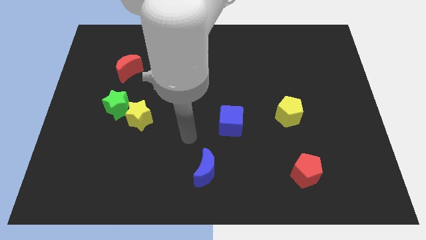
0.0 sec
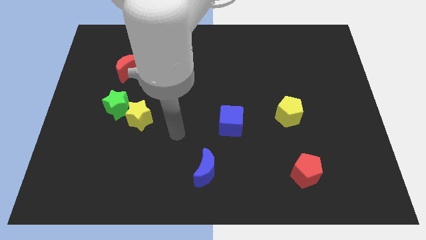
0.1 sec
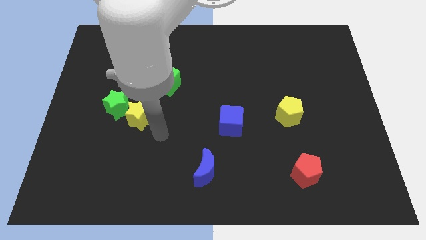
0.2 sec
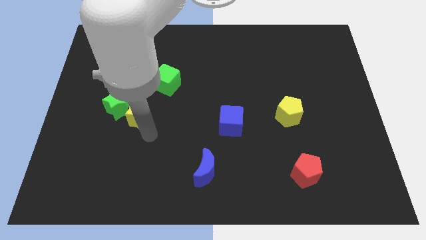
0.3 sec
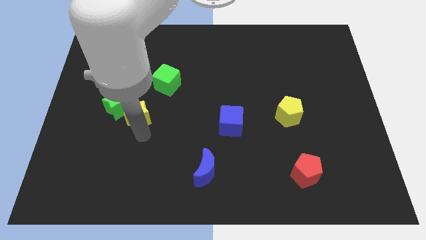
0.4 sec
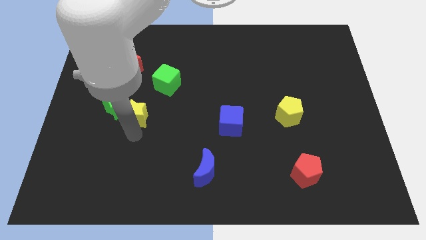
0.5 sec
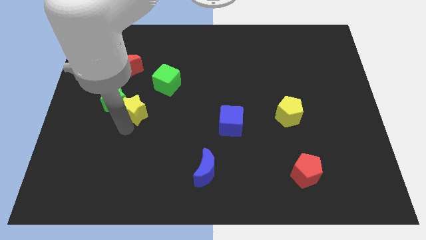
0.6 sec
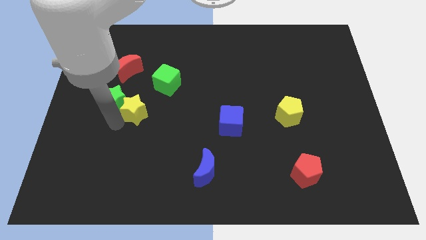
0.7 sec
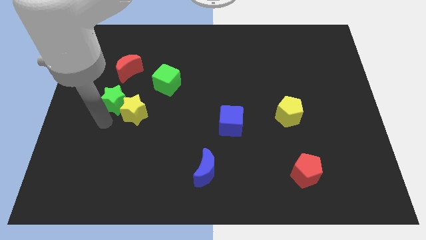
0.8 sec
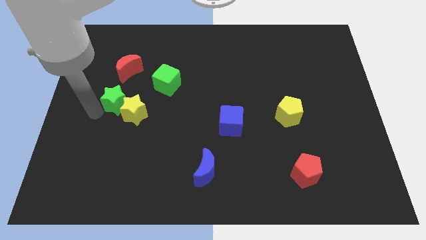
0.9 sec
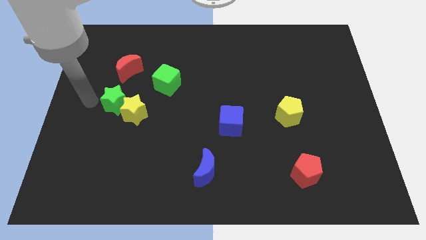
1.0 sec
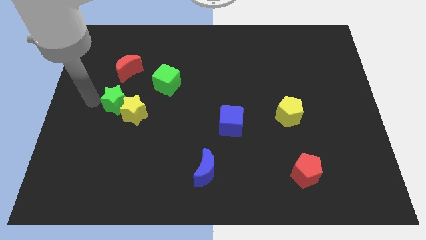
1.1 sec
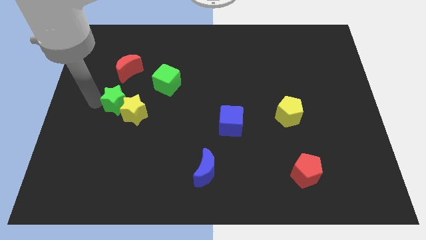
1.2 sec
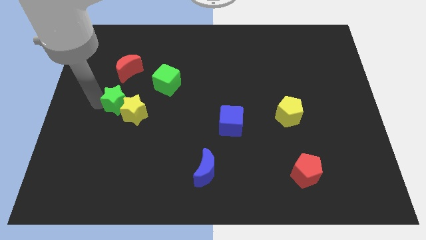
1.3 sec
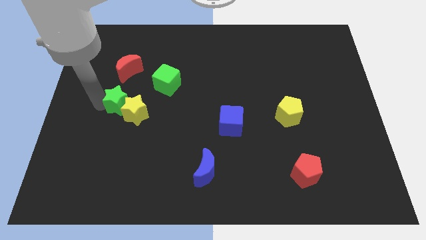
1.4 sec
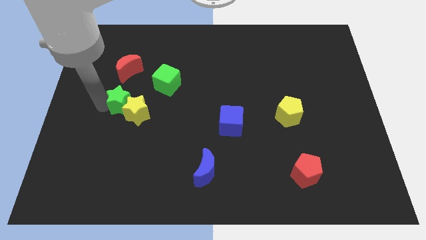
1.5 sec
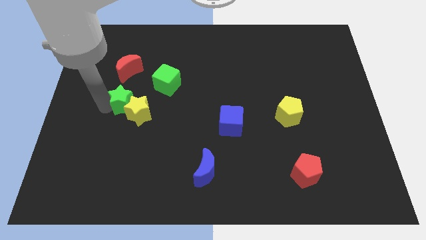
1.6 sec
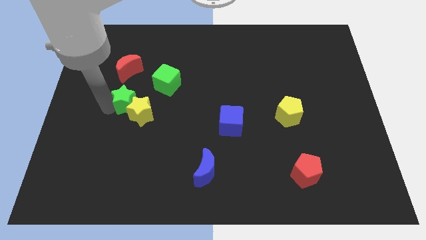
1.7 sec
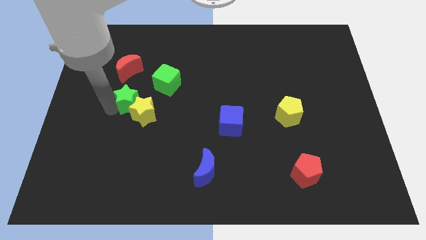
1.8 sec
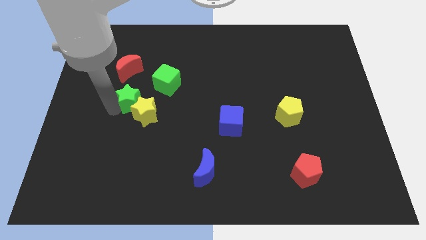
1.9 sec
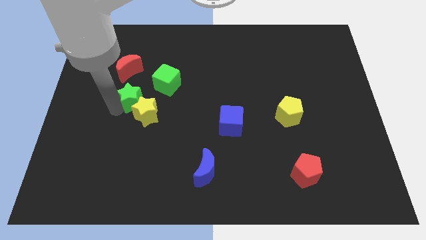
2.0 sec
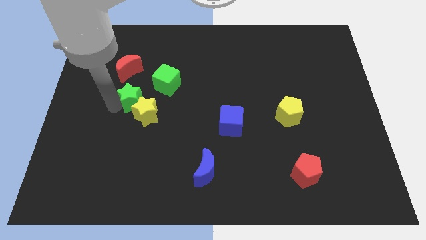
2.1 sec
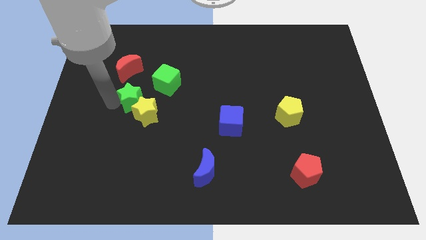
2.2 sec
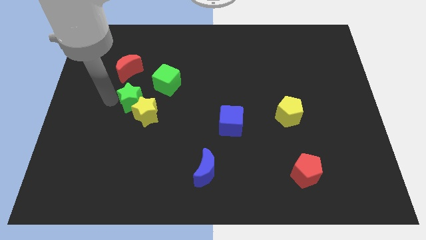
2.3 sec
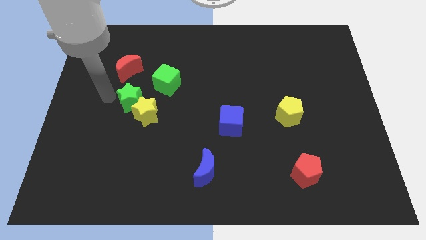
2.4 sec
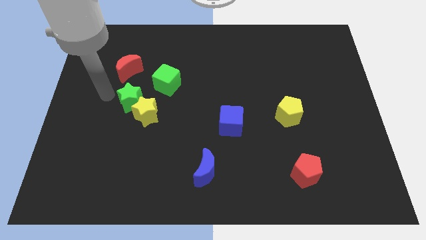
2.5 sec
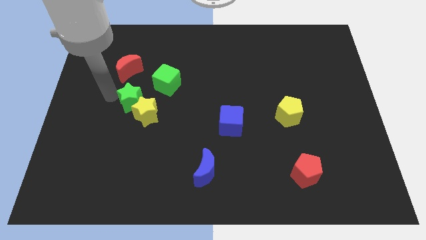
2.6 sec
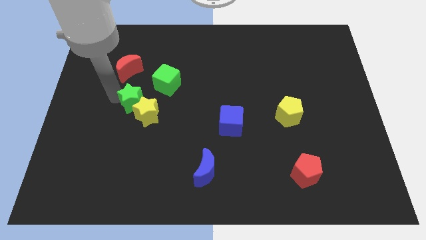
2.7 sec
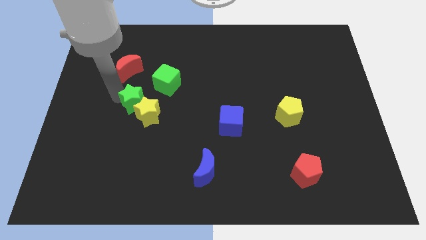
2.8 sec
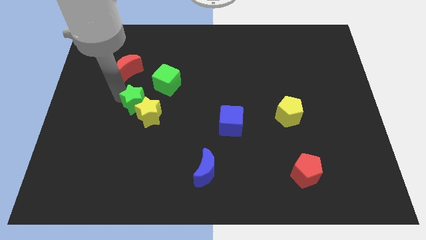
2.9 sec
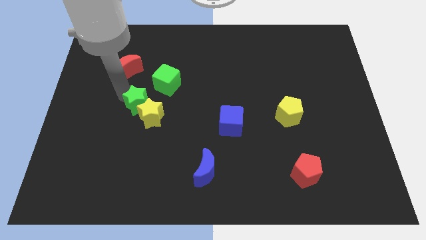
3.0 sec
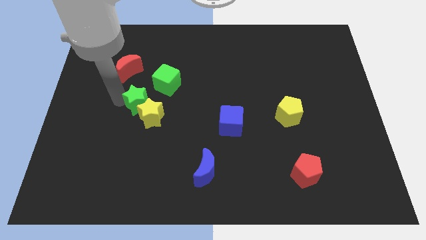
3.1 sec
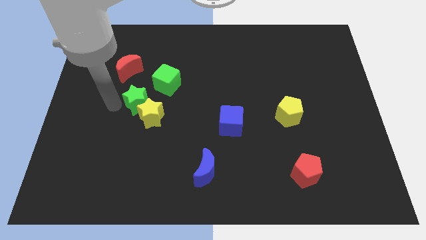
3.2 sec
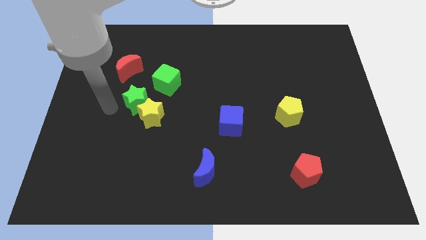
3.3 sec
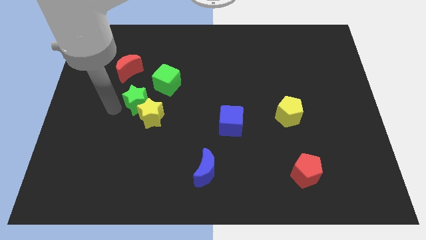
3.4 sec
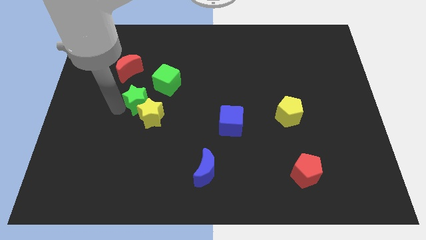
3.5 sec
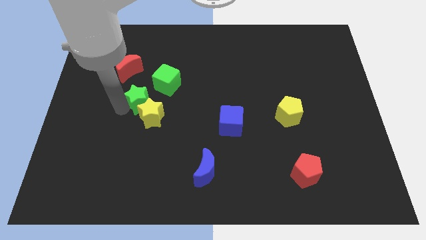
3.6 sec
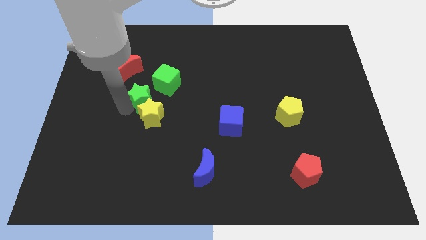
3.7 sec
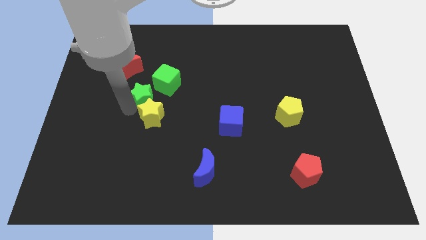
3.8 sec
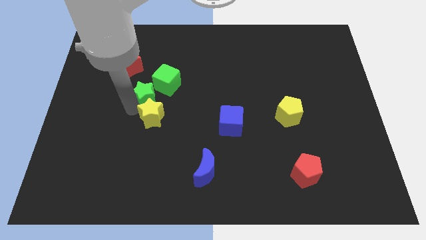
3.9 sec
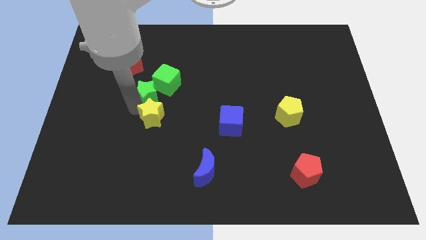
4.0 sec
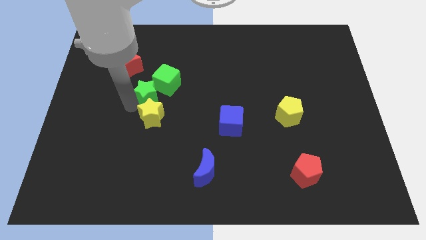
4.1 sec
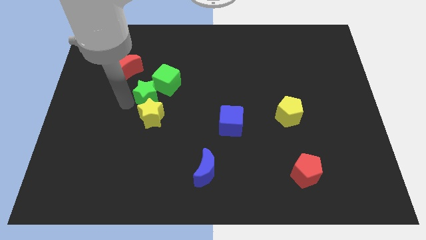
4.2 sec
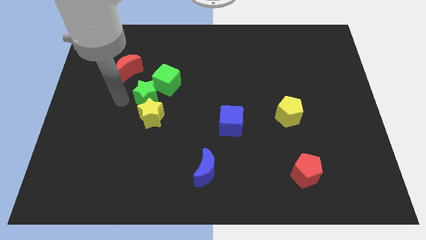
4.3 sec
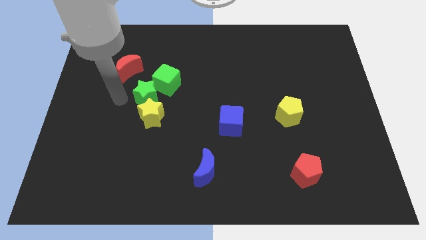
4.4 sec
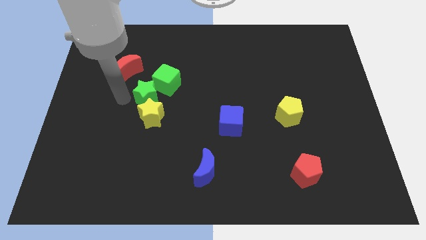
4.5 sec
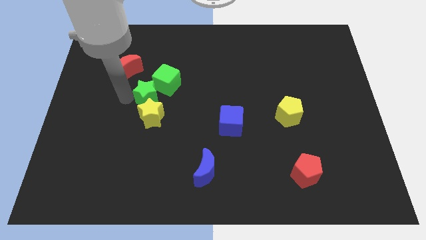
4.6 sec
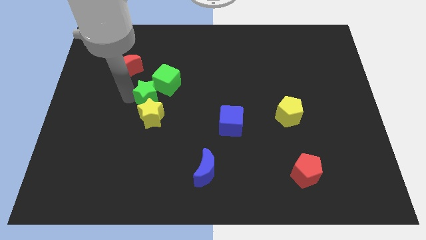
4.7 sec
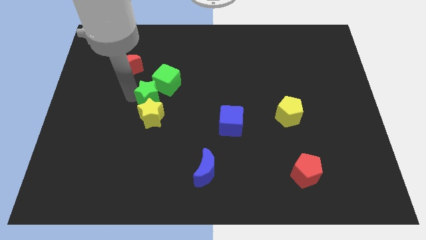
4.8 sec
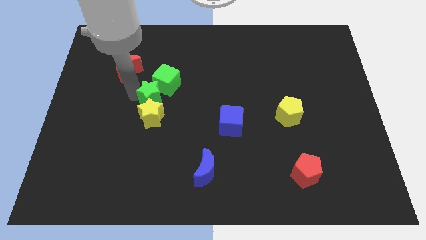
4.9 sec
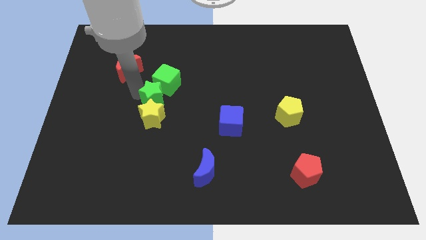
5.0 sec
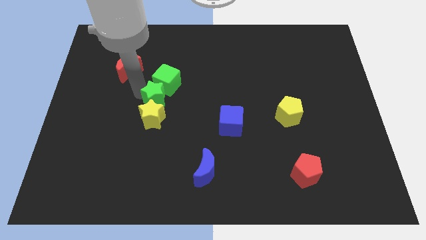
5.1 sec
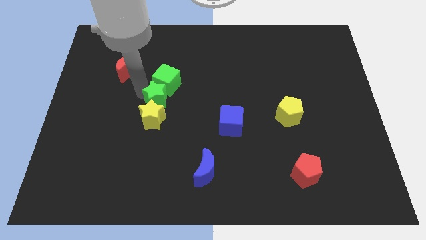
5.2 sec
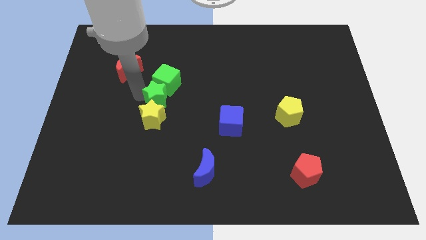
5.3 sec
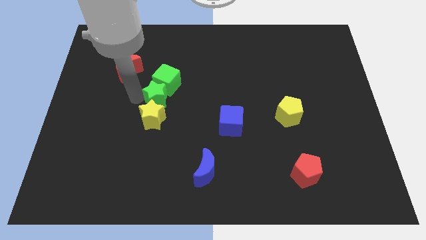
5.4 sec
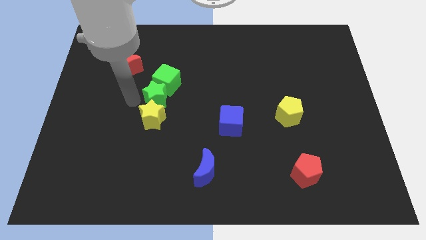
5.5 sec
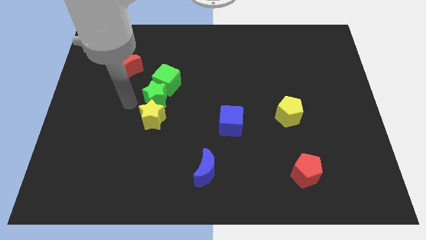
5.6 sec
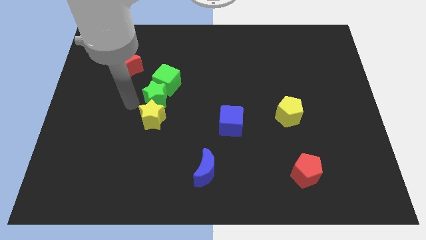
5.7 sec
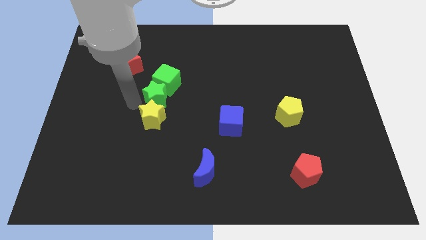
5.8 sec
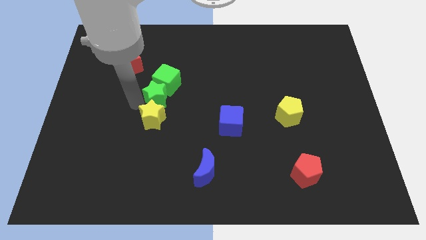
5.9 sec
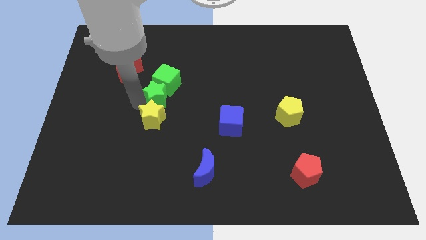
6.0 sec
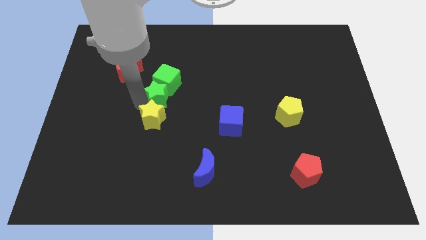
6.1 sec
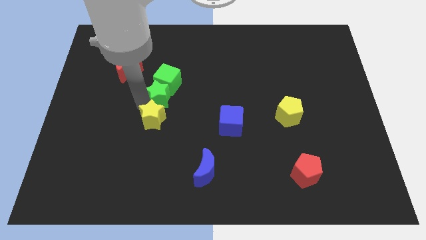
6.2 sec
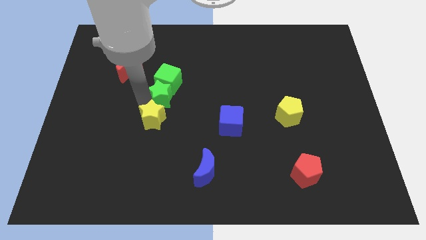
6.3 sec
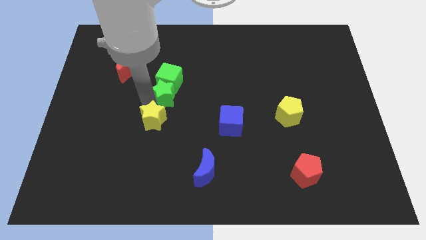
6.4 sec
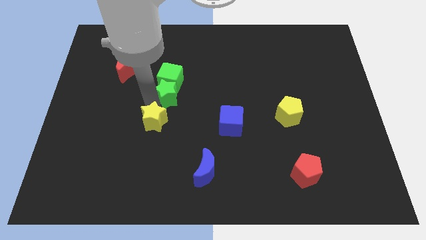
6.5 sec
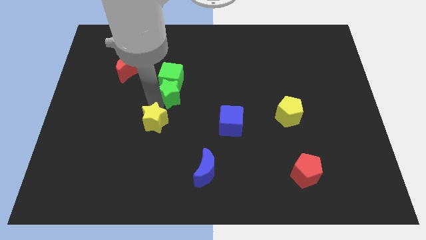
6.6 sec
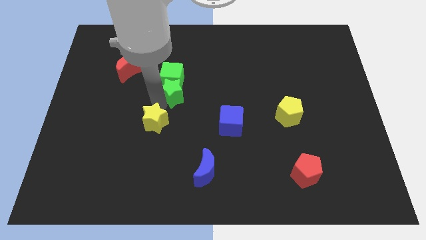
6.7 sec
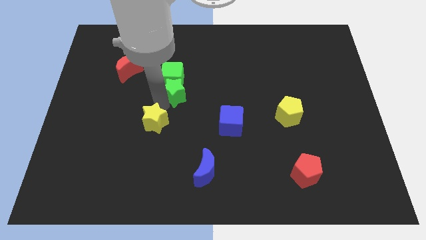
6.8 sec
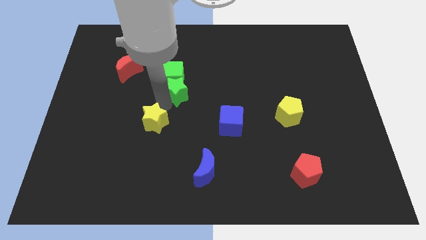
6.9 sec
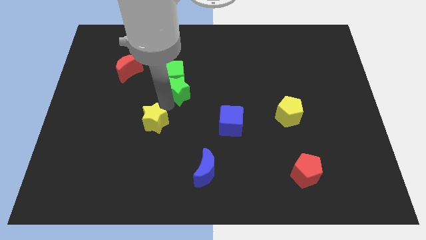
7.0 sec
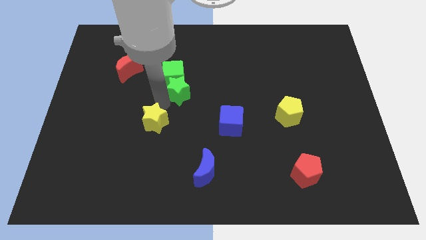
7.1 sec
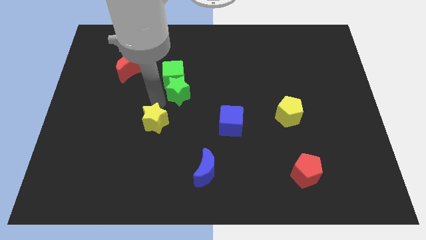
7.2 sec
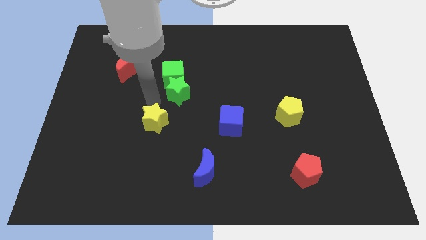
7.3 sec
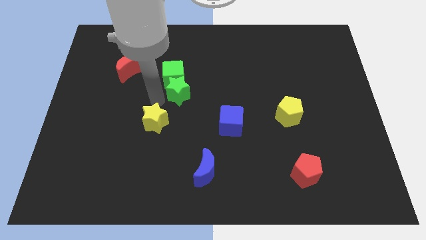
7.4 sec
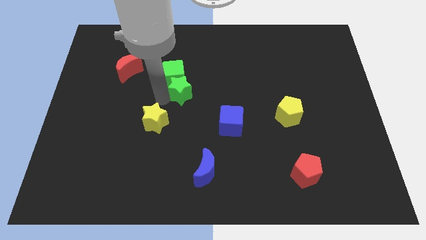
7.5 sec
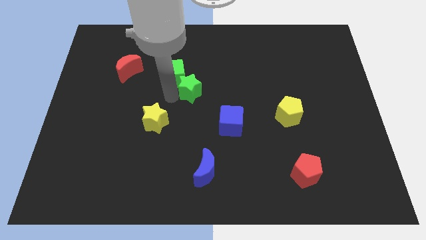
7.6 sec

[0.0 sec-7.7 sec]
slide the green star to the right side of the green cube

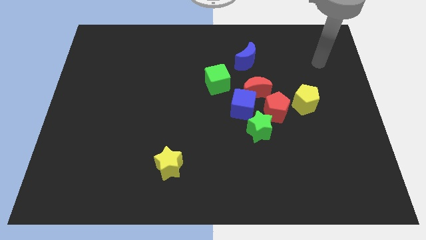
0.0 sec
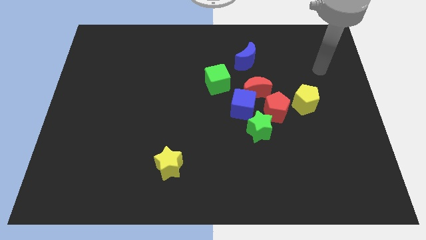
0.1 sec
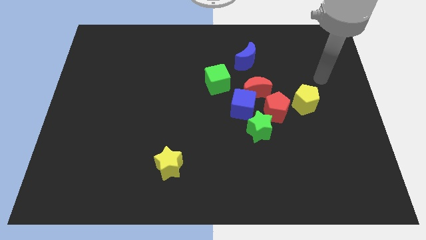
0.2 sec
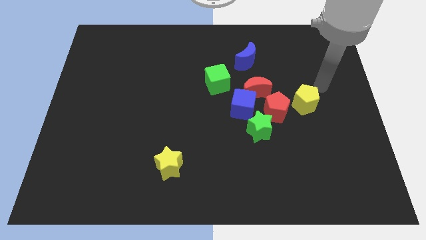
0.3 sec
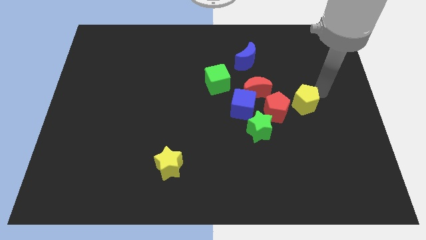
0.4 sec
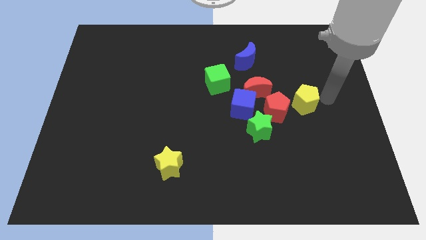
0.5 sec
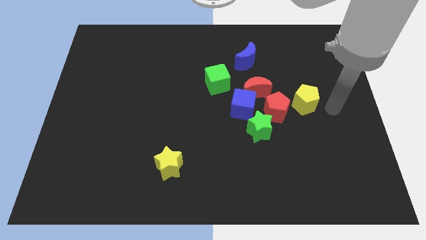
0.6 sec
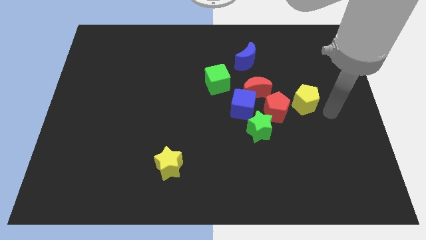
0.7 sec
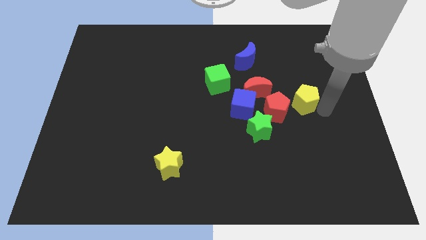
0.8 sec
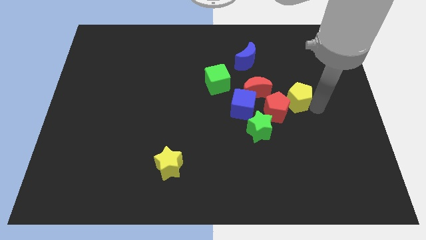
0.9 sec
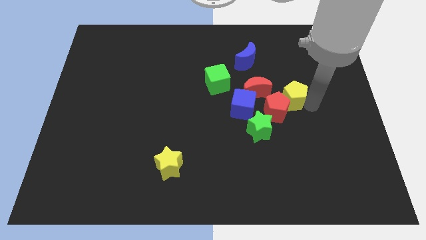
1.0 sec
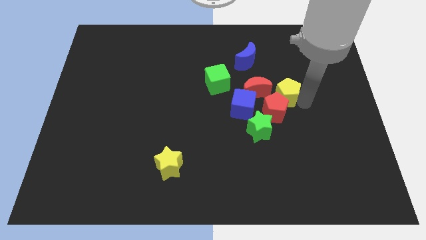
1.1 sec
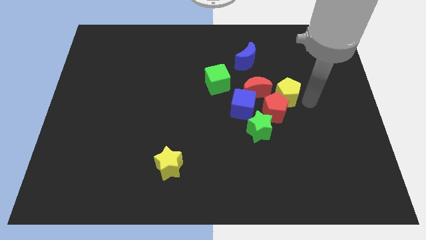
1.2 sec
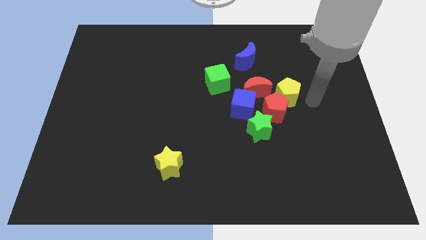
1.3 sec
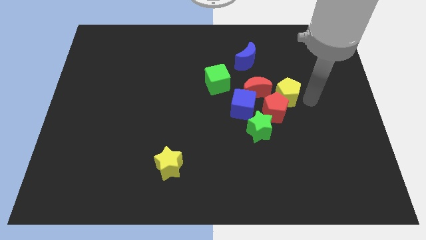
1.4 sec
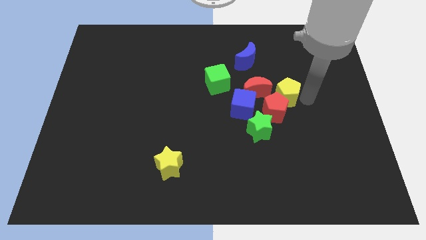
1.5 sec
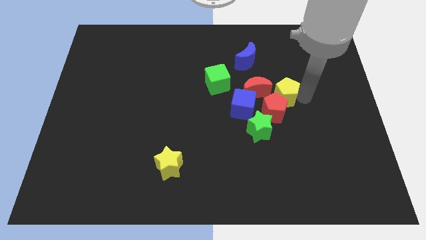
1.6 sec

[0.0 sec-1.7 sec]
move the yellow pentagon to the top right side of the blue cube
